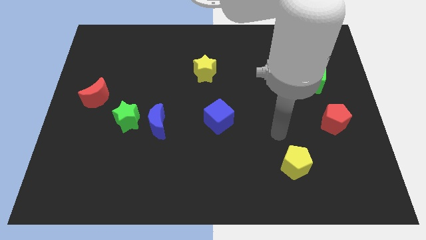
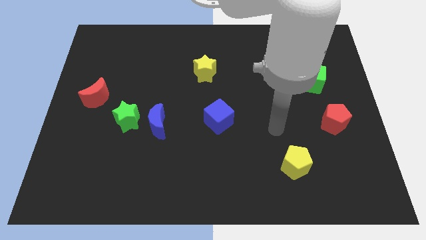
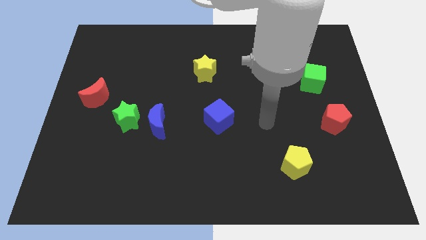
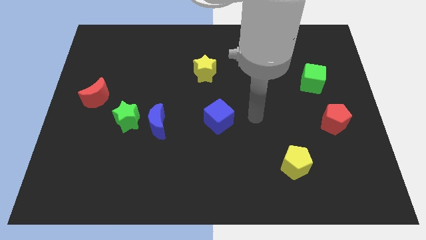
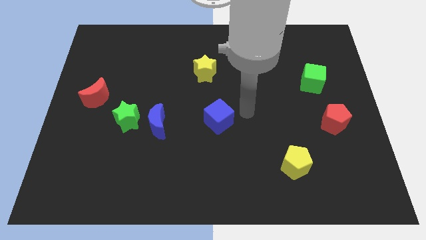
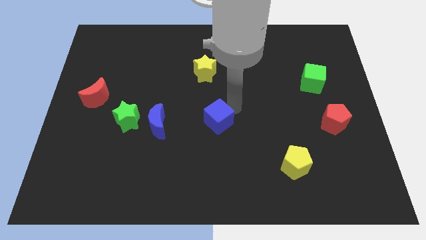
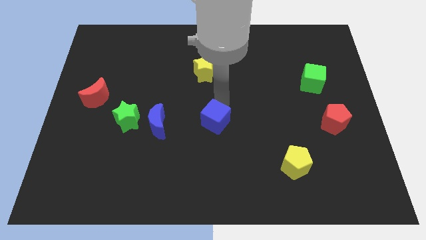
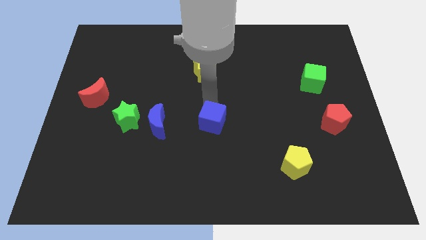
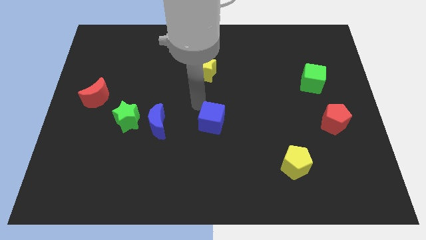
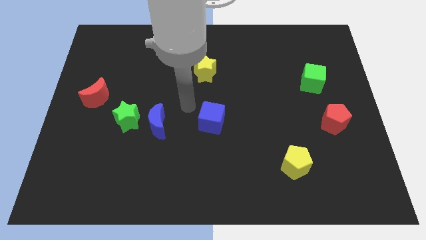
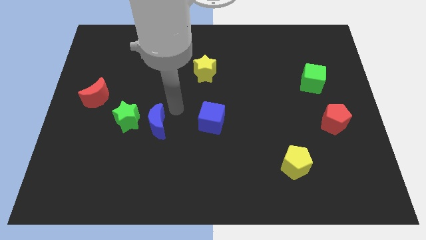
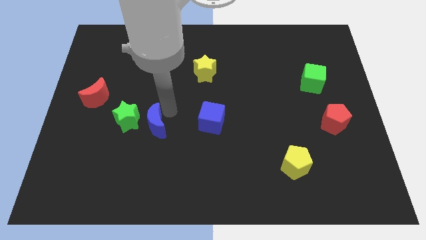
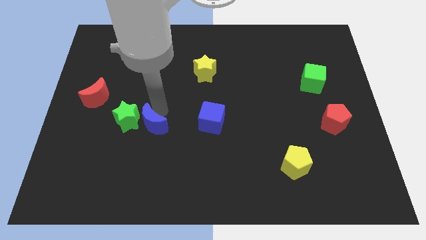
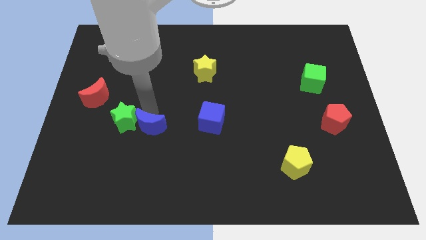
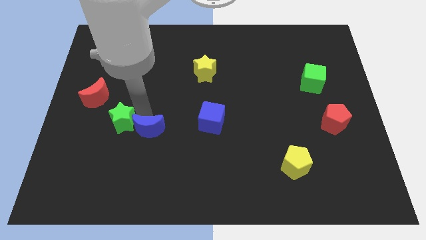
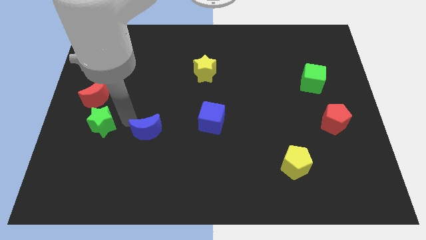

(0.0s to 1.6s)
move the blue moon away from the green star

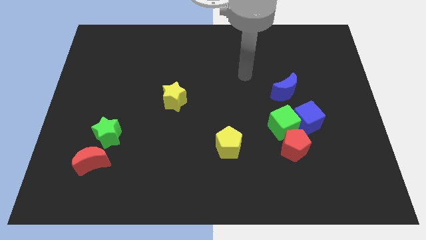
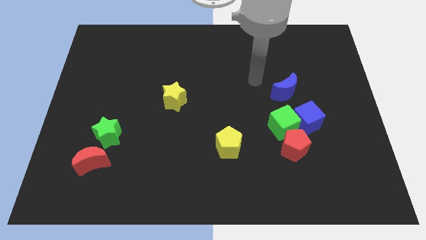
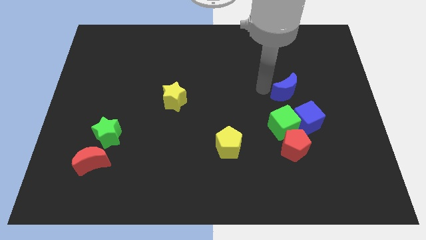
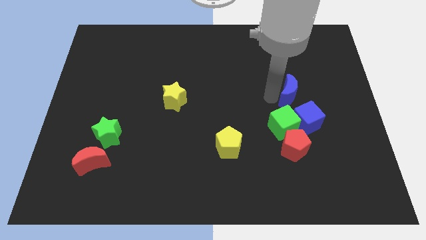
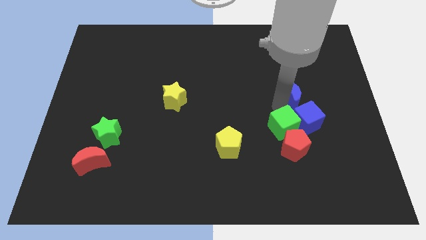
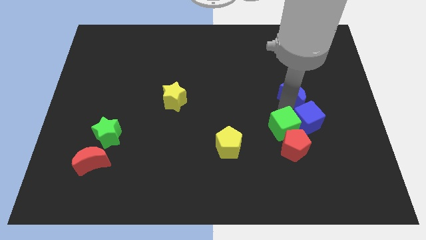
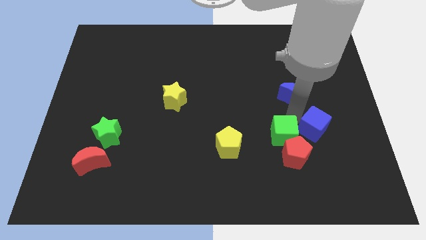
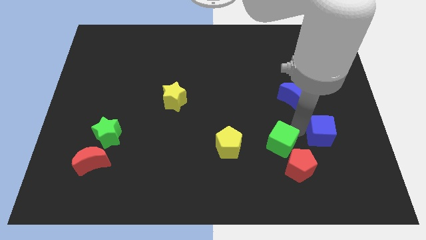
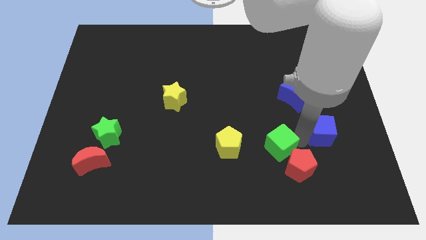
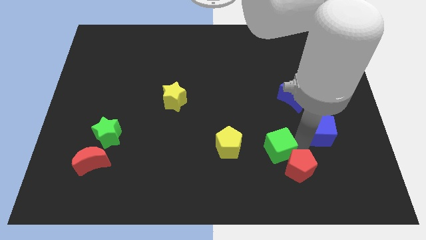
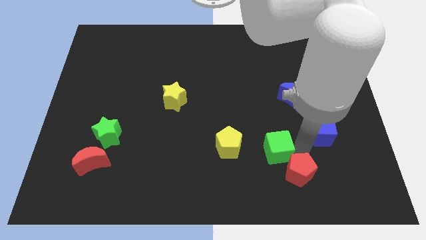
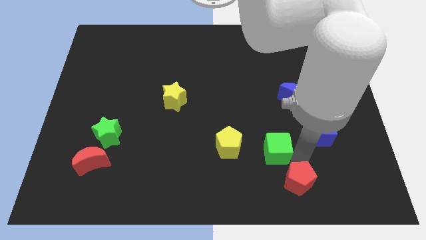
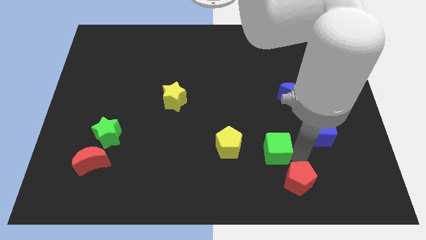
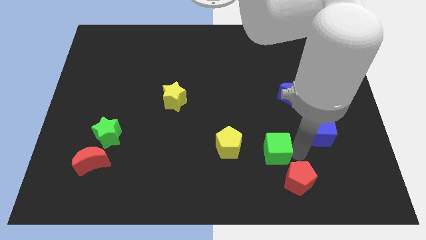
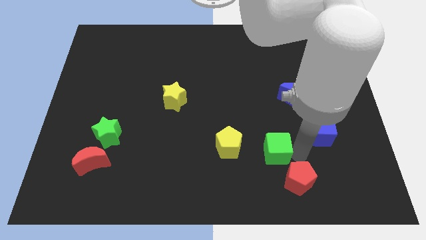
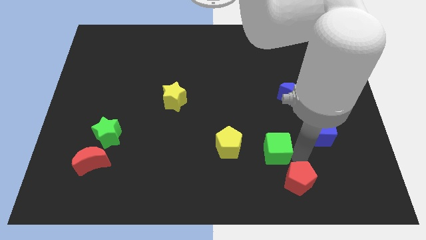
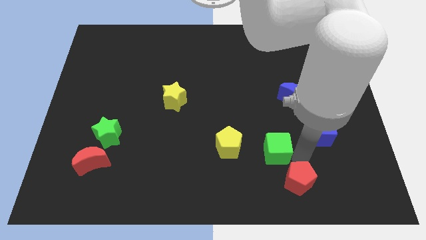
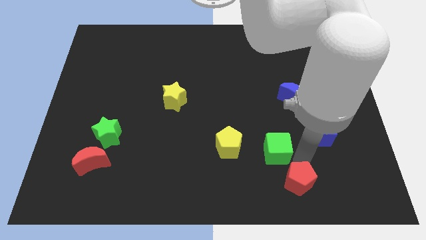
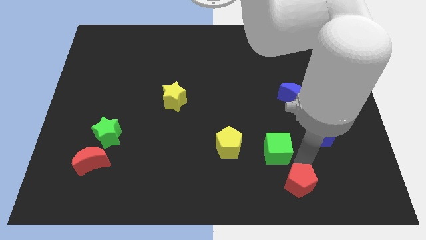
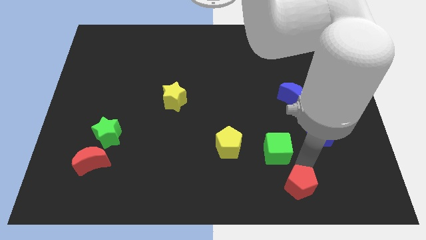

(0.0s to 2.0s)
separate the red pentagon from the green cube and blue cube

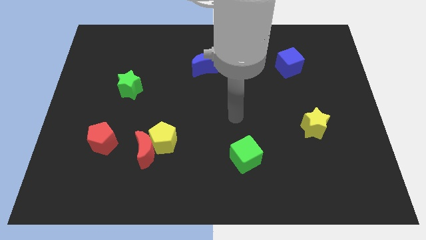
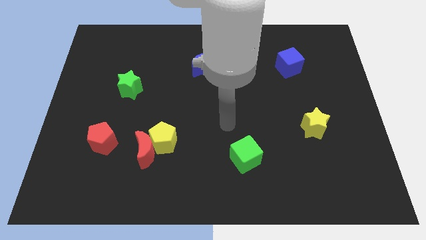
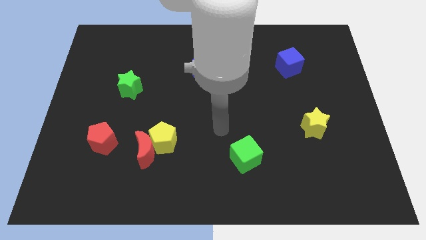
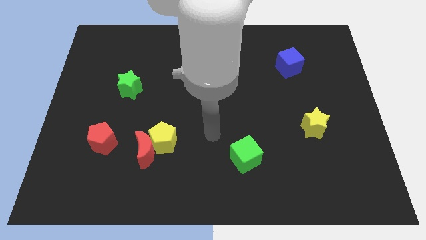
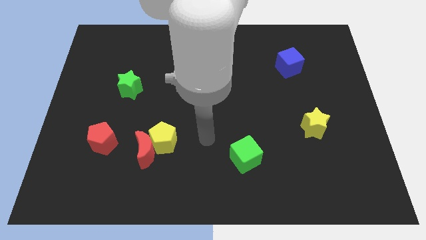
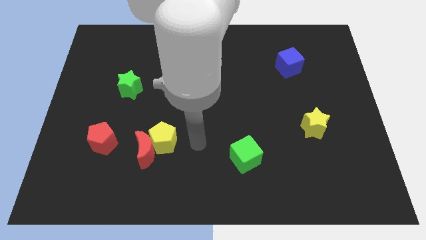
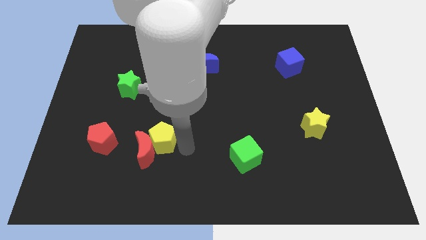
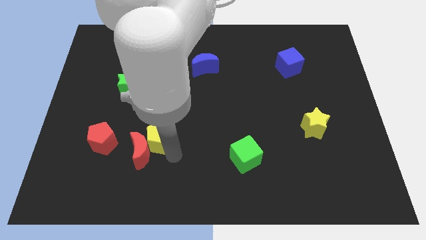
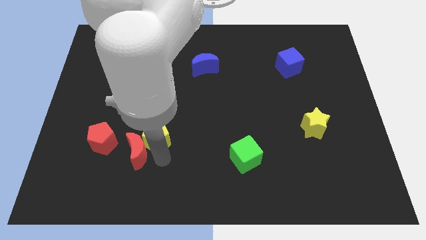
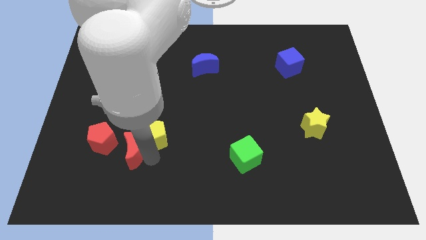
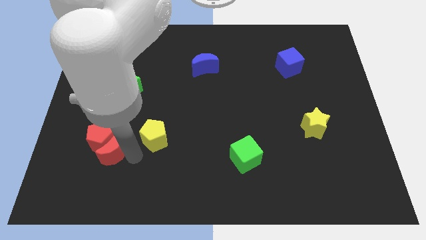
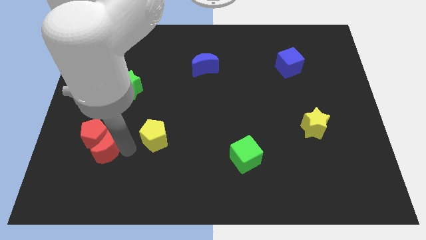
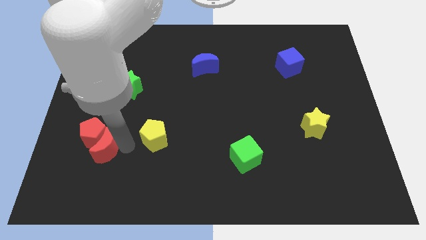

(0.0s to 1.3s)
move the yellow pentagon away from the red moon

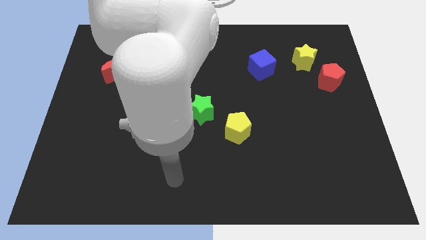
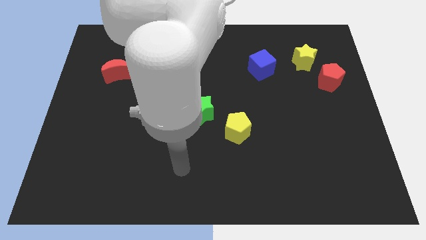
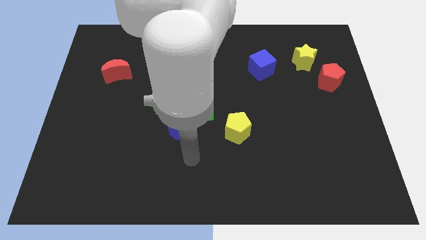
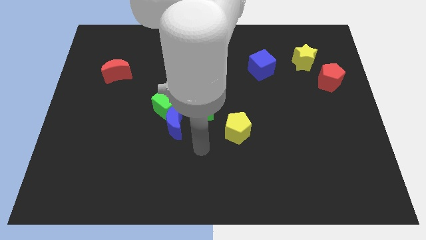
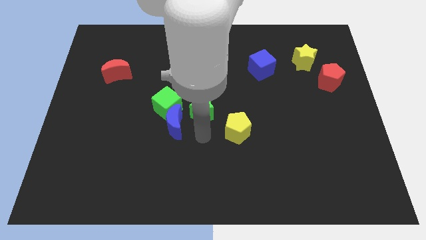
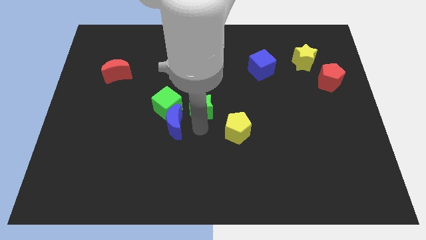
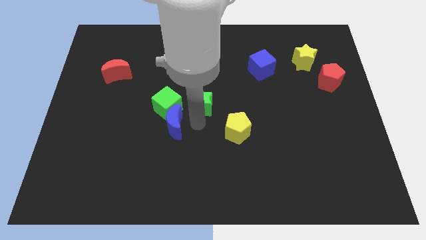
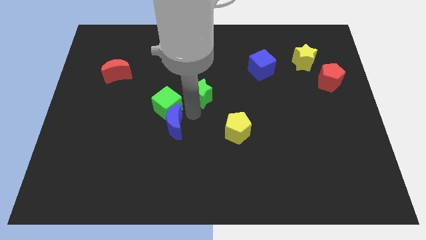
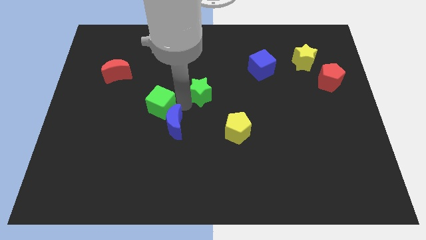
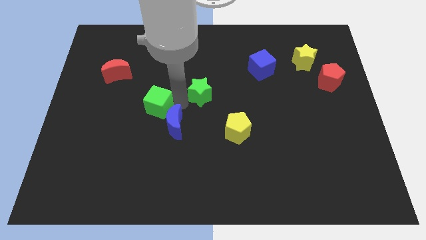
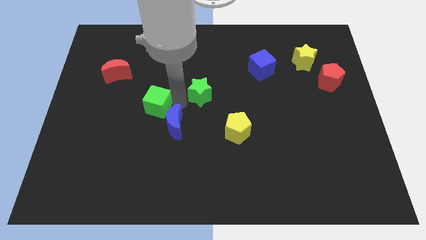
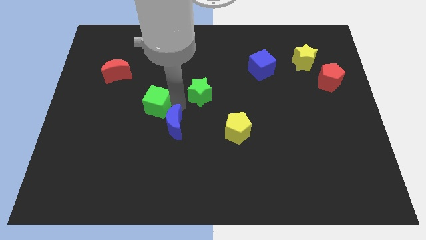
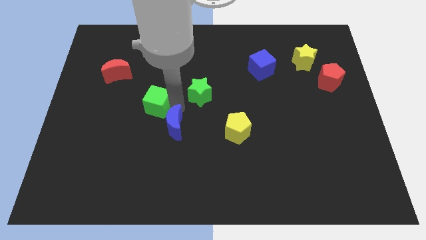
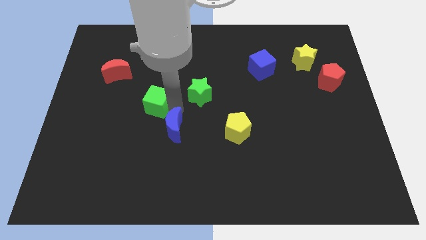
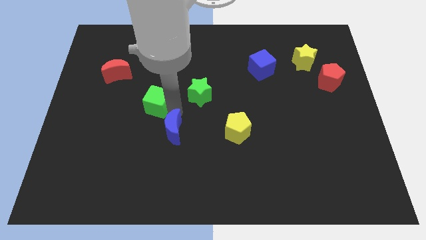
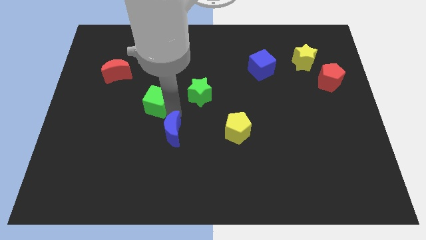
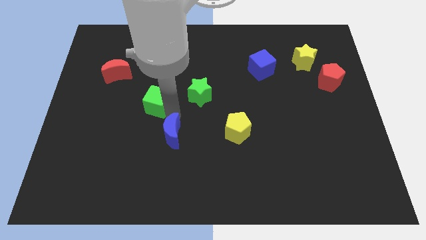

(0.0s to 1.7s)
separate the blue moon from the green cube and green star

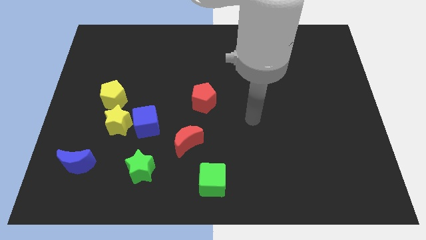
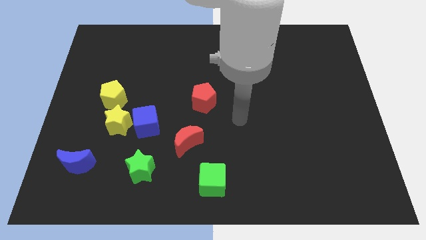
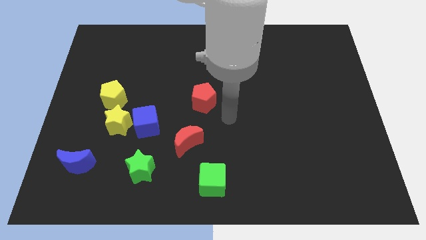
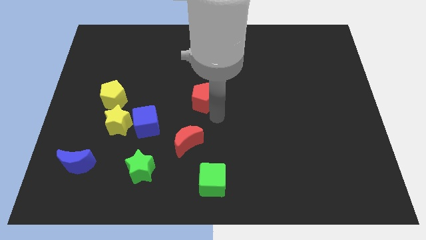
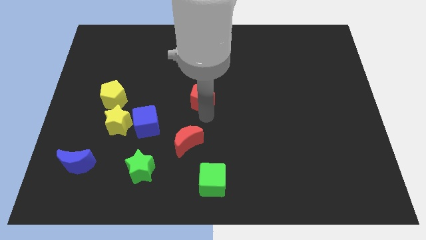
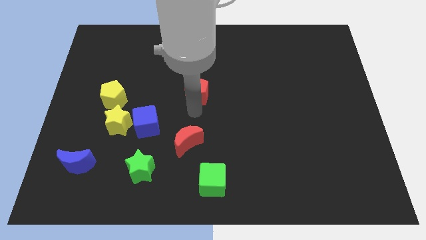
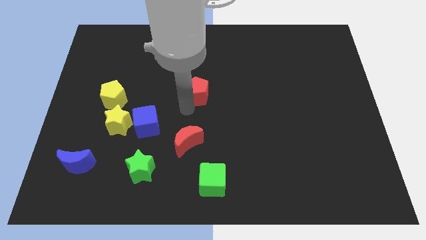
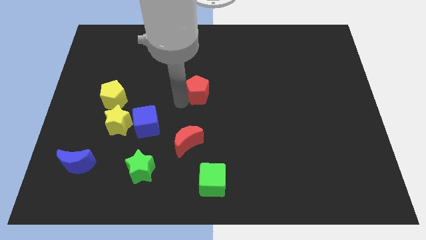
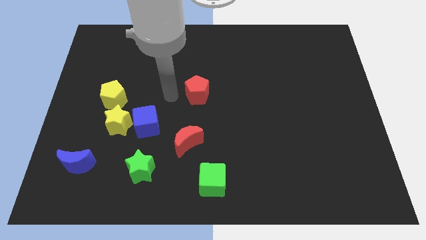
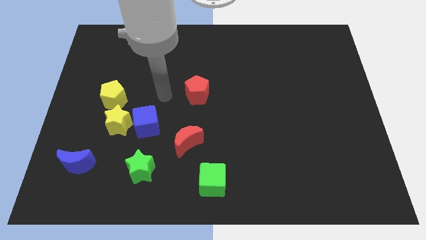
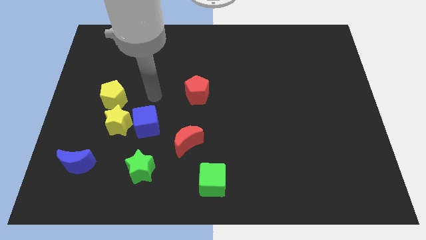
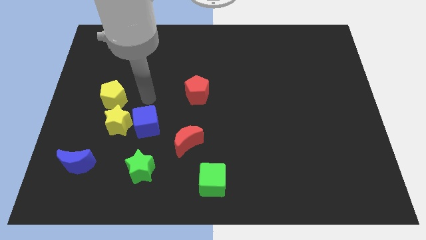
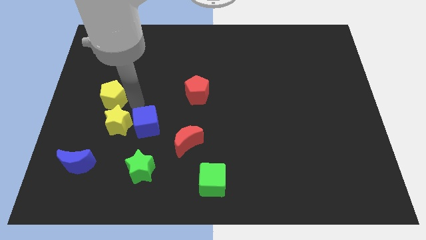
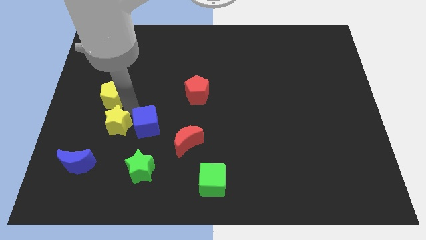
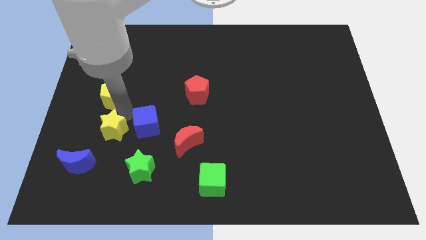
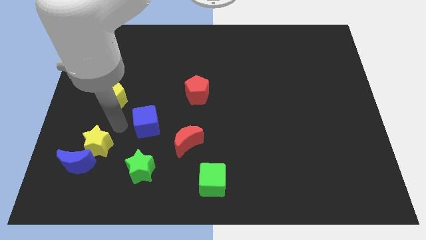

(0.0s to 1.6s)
separate the blue cube from the yellow star

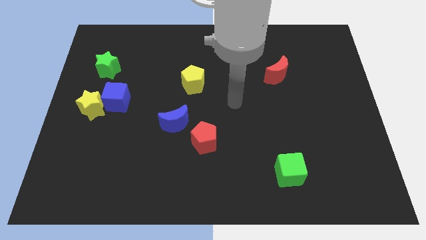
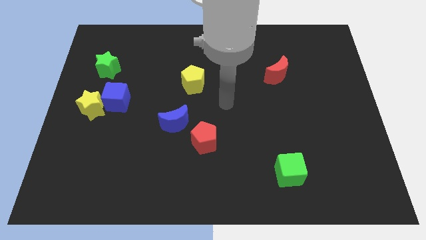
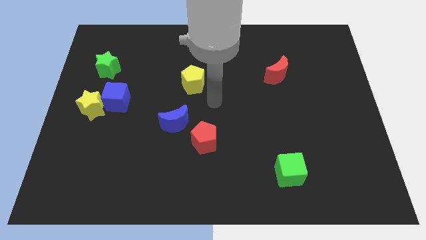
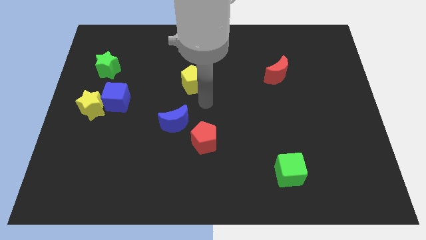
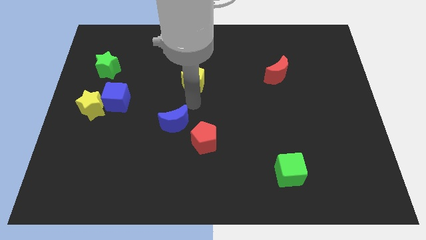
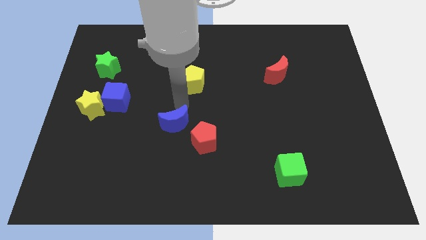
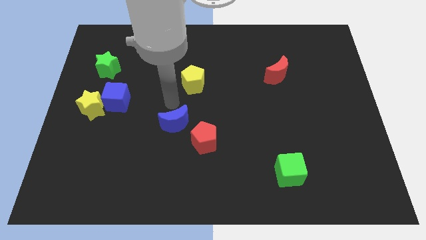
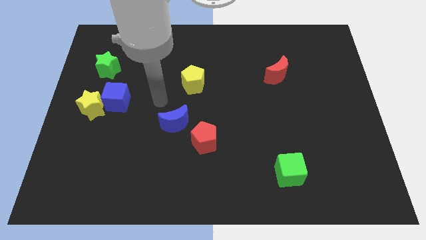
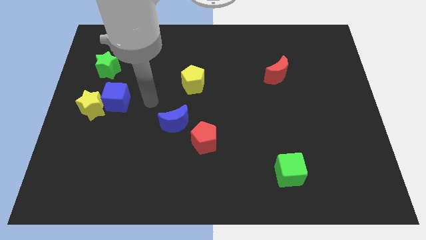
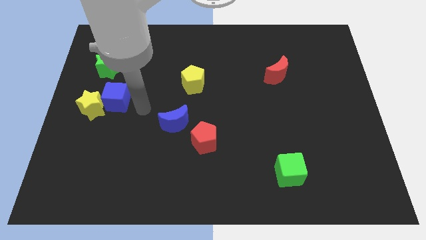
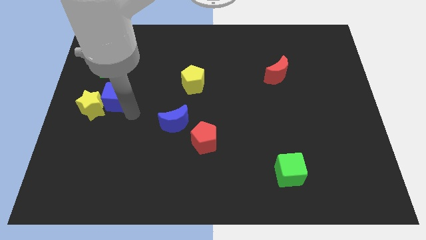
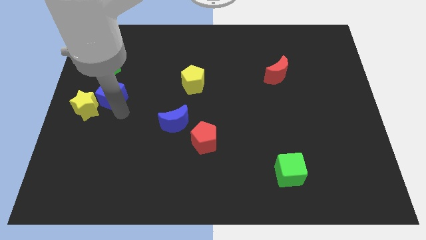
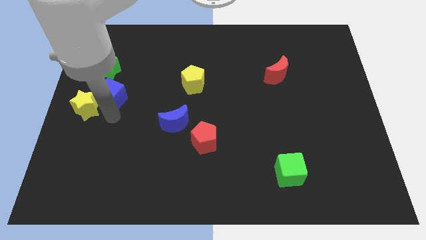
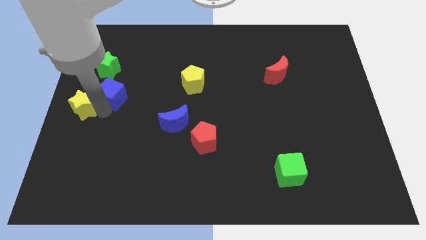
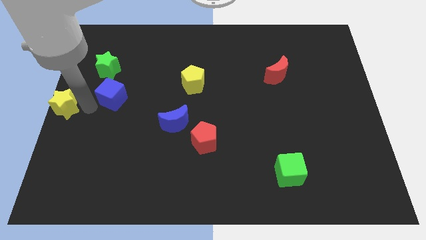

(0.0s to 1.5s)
move the blue cube away from the yellow star
